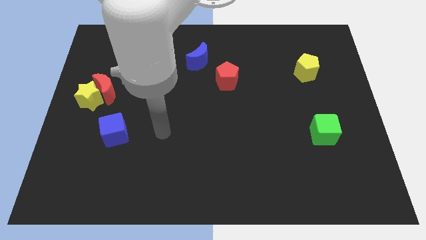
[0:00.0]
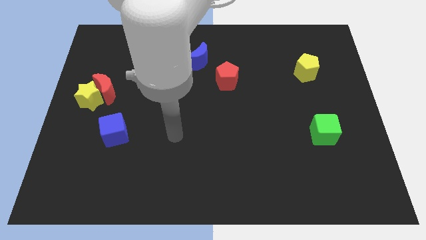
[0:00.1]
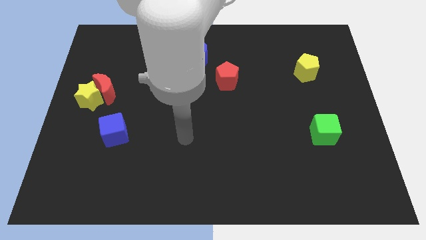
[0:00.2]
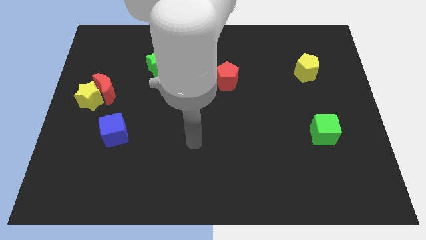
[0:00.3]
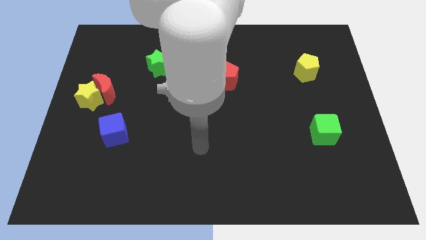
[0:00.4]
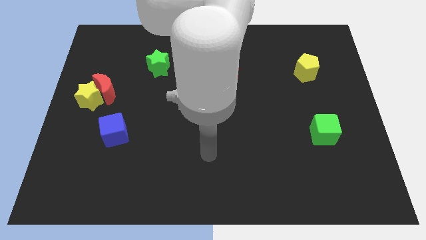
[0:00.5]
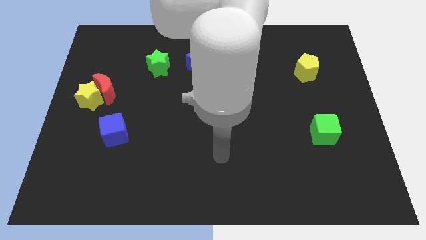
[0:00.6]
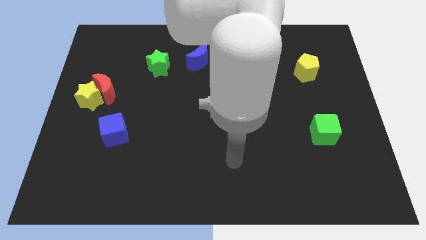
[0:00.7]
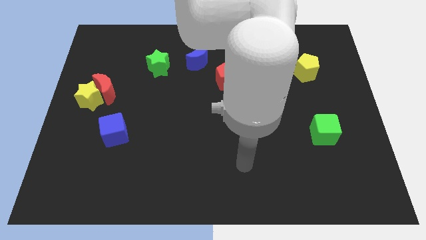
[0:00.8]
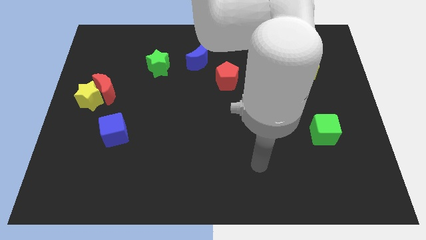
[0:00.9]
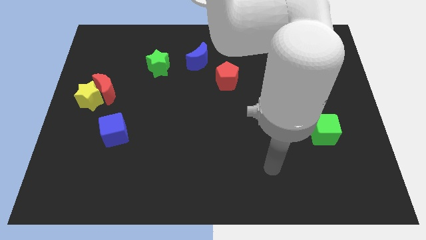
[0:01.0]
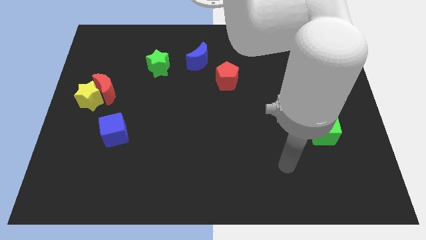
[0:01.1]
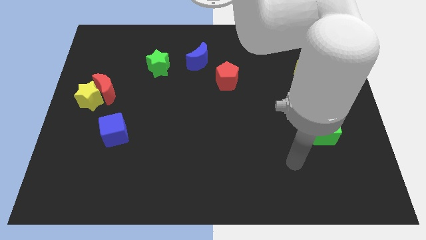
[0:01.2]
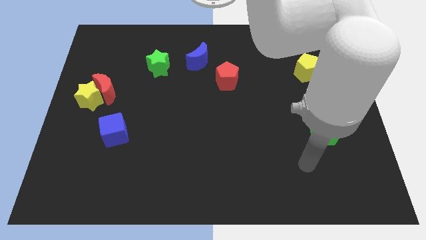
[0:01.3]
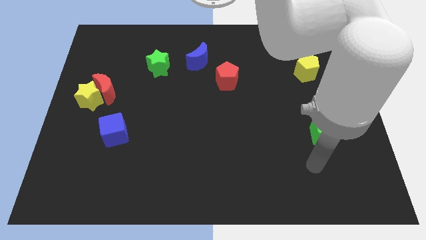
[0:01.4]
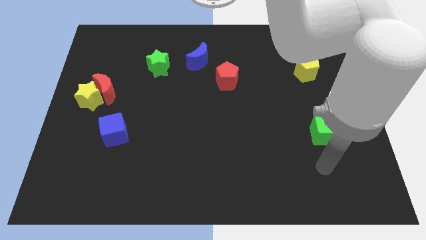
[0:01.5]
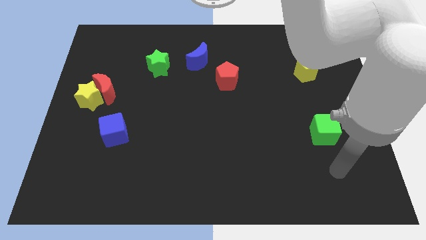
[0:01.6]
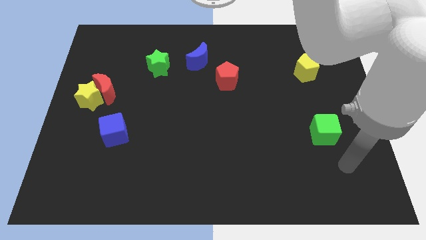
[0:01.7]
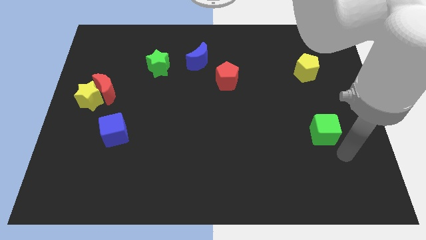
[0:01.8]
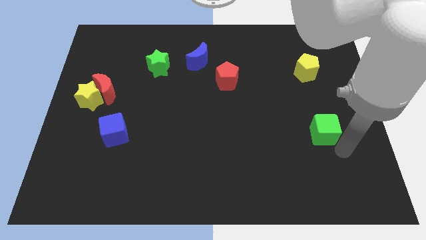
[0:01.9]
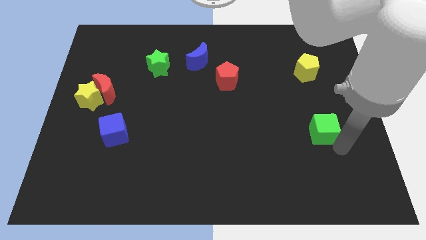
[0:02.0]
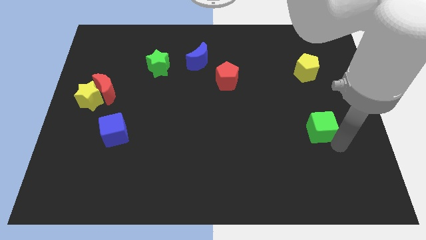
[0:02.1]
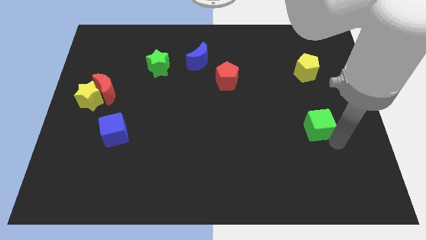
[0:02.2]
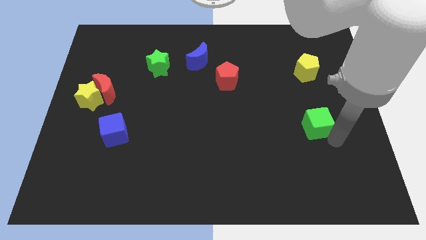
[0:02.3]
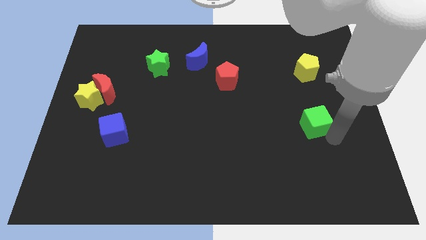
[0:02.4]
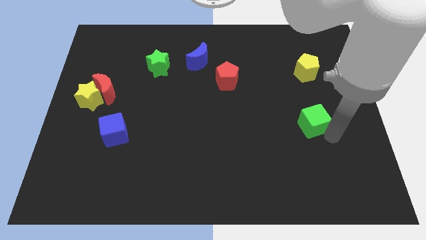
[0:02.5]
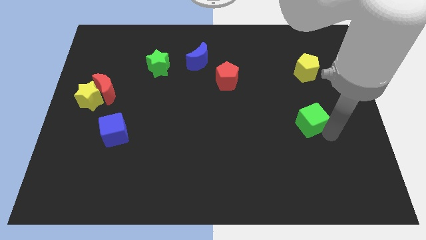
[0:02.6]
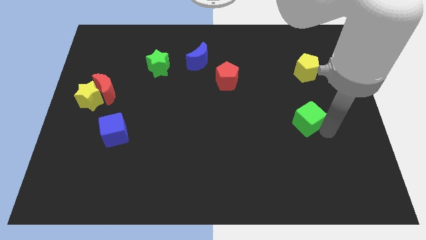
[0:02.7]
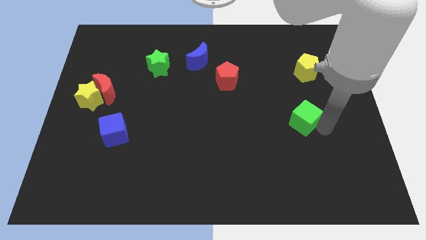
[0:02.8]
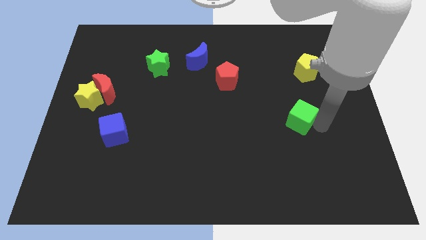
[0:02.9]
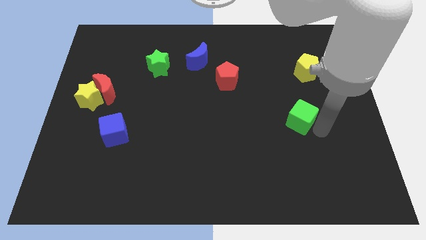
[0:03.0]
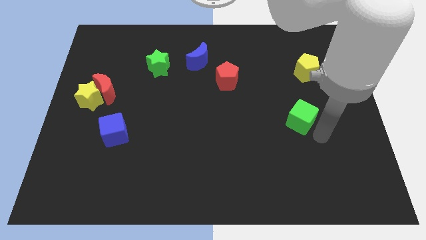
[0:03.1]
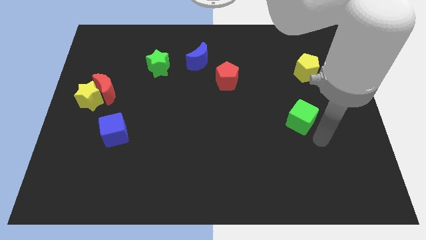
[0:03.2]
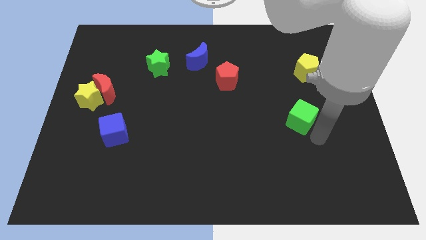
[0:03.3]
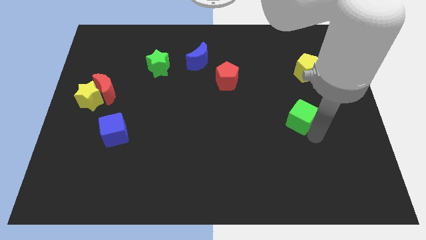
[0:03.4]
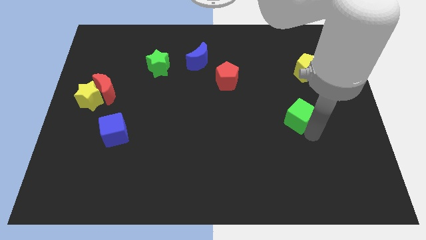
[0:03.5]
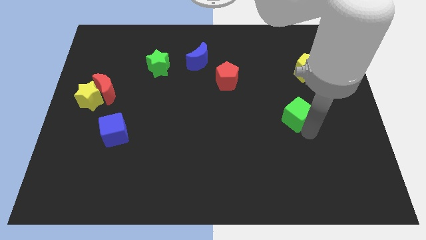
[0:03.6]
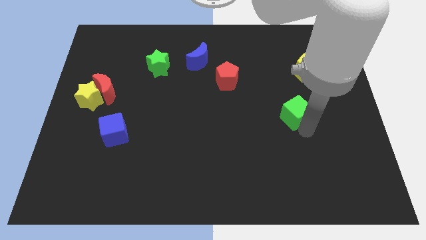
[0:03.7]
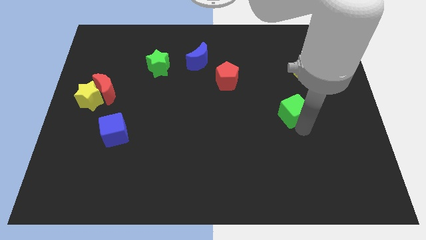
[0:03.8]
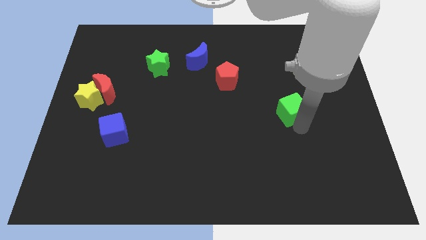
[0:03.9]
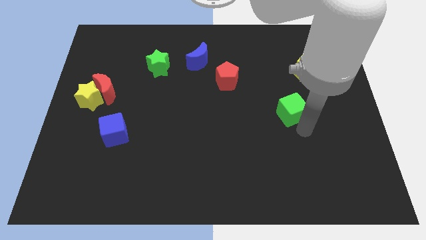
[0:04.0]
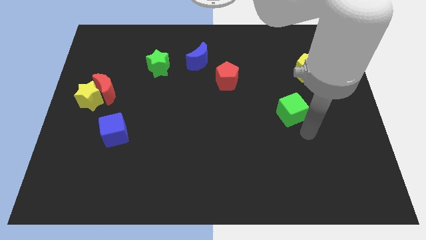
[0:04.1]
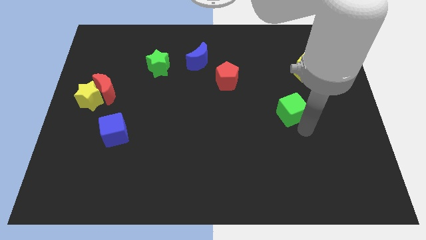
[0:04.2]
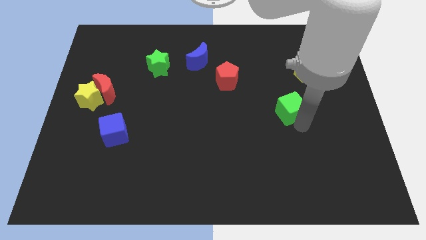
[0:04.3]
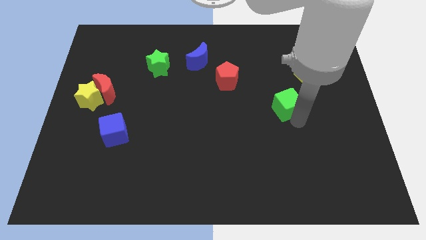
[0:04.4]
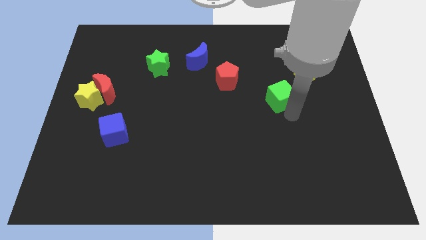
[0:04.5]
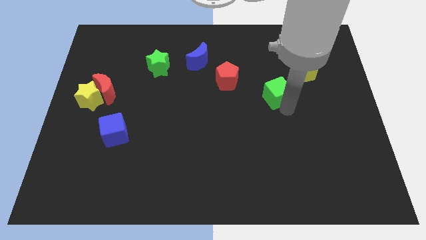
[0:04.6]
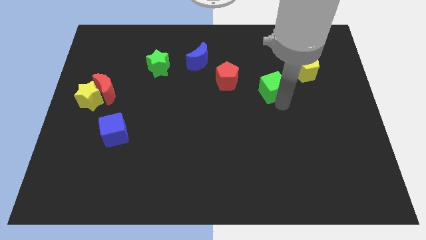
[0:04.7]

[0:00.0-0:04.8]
slide the green cube to the right of the red pentagon

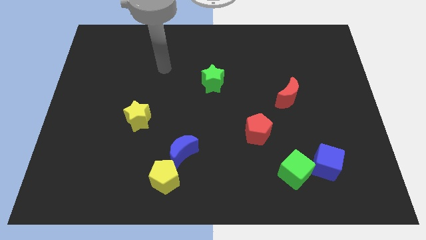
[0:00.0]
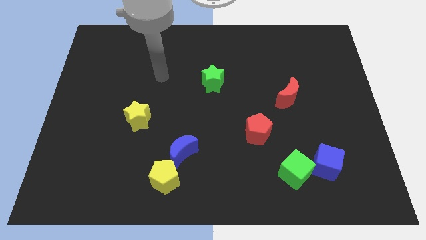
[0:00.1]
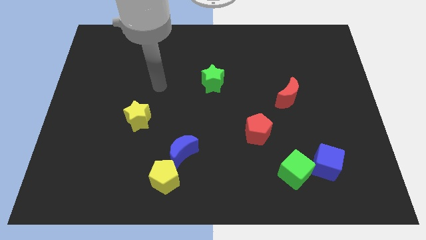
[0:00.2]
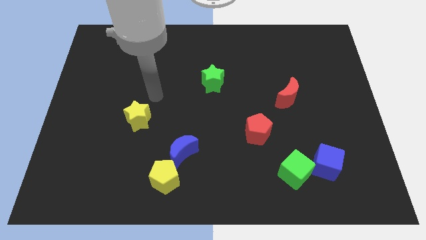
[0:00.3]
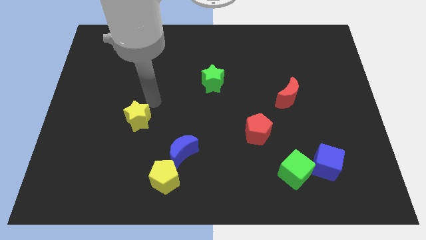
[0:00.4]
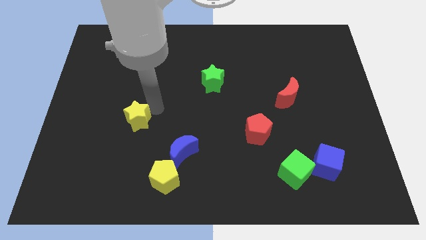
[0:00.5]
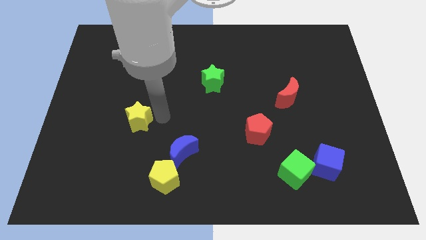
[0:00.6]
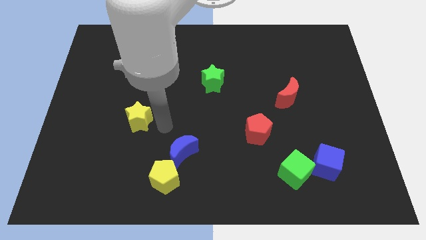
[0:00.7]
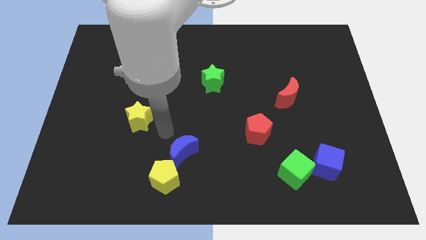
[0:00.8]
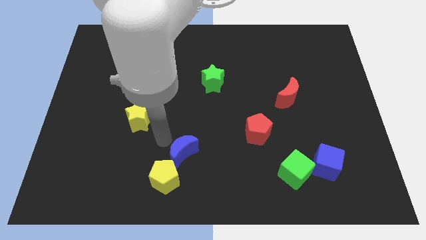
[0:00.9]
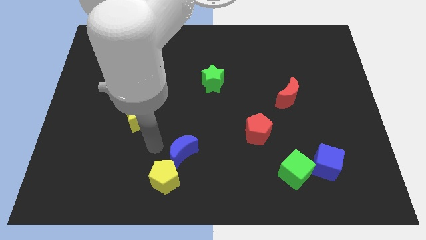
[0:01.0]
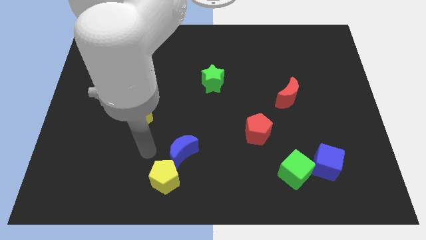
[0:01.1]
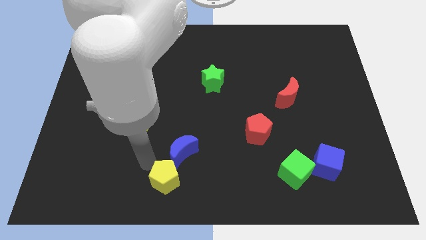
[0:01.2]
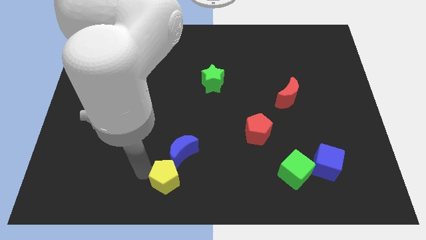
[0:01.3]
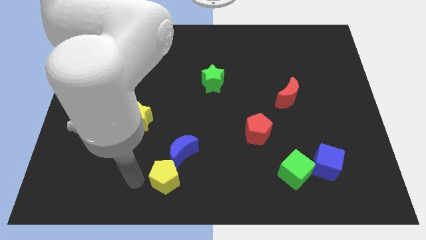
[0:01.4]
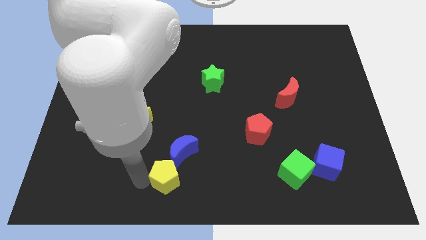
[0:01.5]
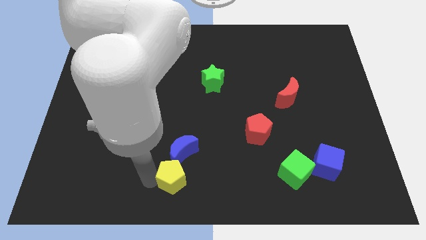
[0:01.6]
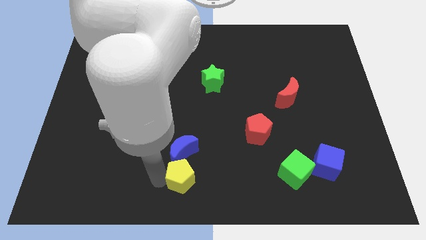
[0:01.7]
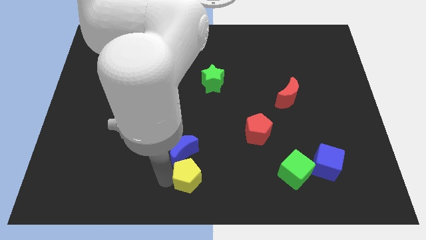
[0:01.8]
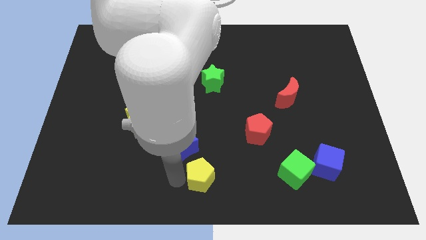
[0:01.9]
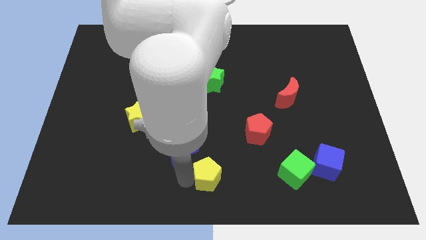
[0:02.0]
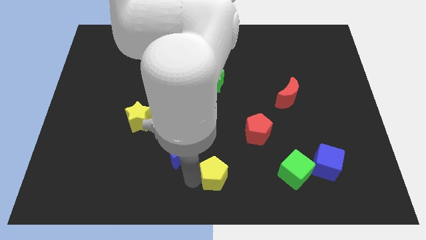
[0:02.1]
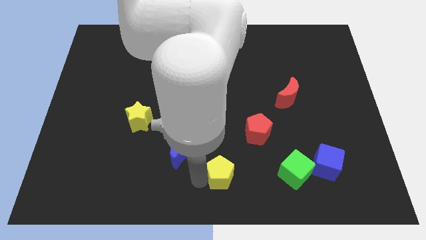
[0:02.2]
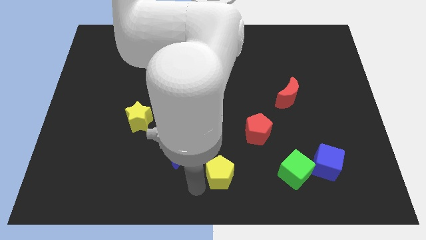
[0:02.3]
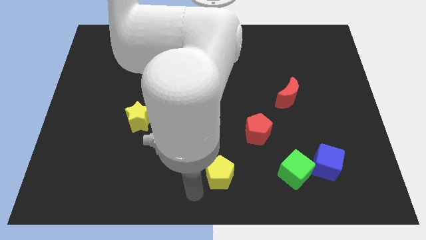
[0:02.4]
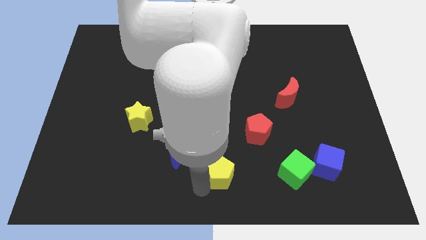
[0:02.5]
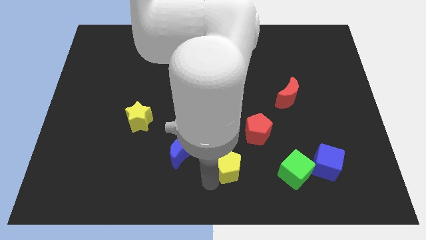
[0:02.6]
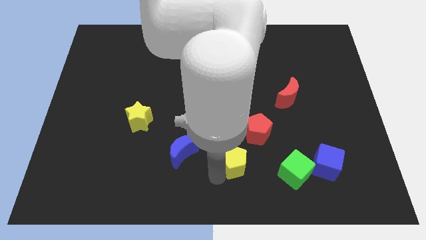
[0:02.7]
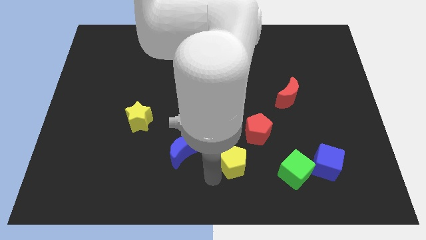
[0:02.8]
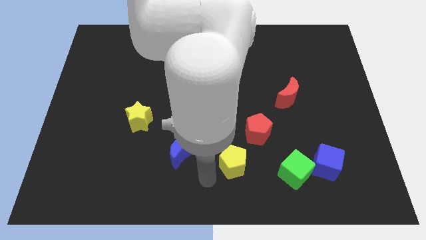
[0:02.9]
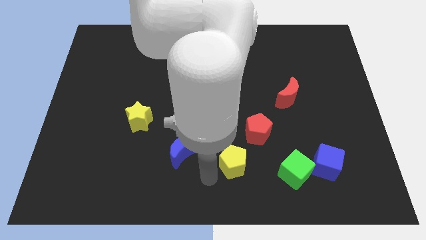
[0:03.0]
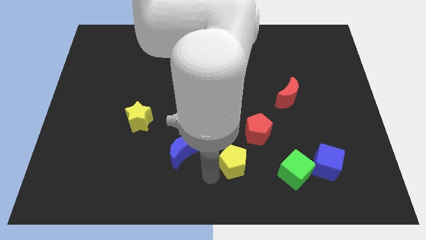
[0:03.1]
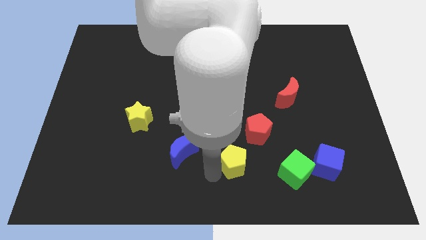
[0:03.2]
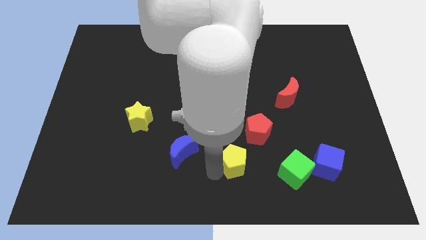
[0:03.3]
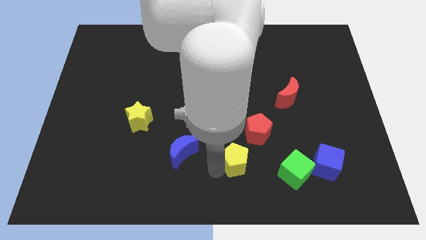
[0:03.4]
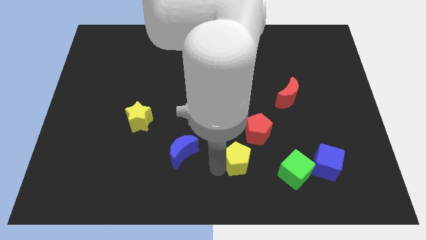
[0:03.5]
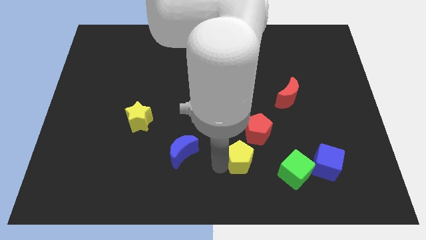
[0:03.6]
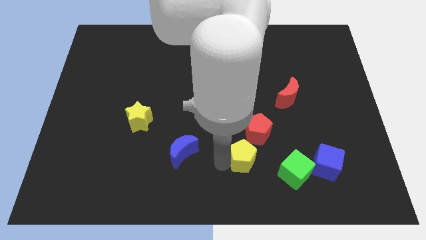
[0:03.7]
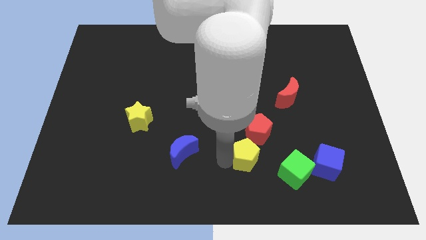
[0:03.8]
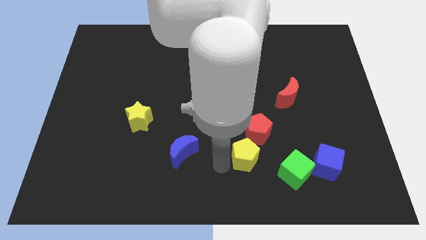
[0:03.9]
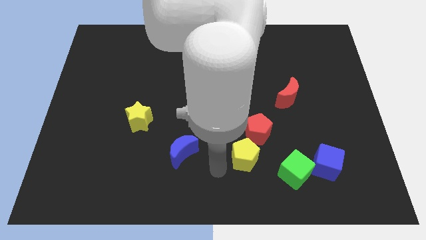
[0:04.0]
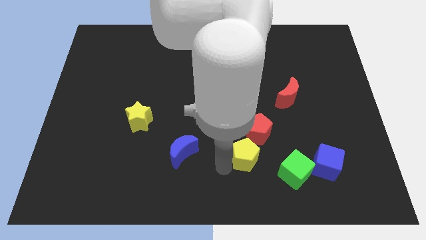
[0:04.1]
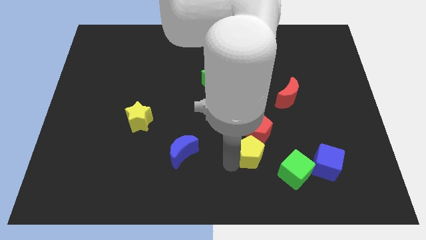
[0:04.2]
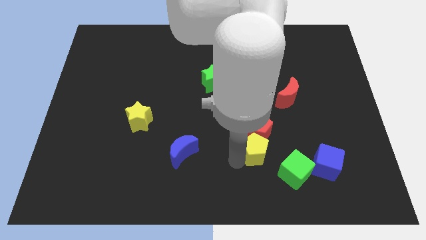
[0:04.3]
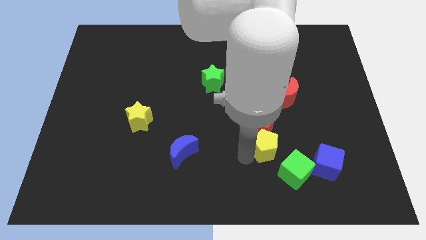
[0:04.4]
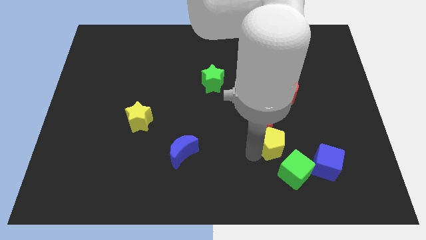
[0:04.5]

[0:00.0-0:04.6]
slide the yellow pentagon above the green cube
